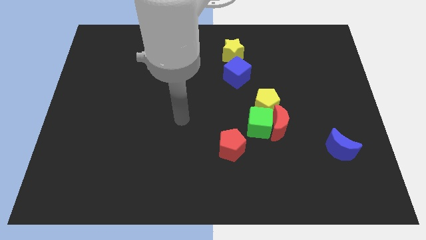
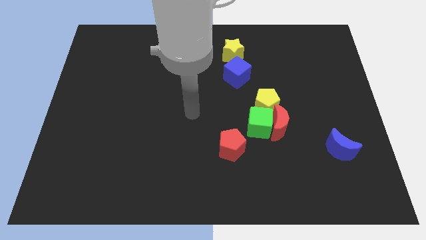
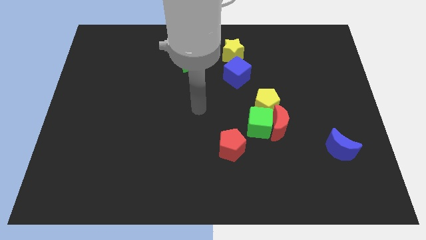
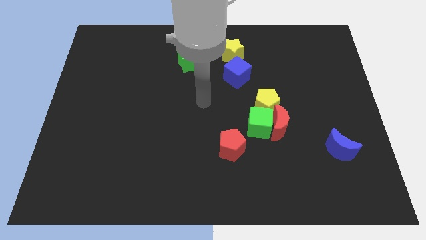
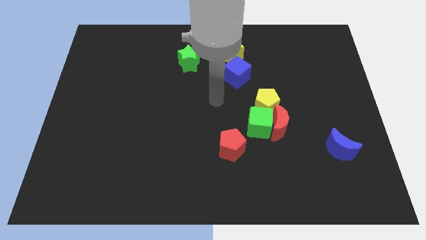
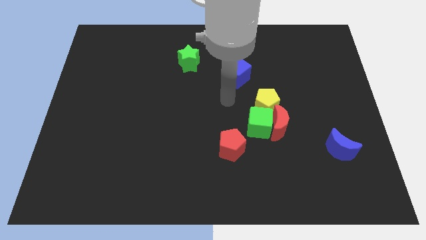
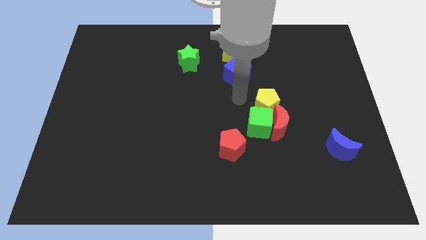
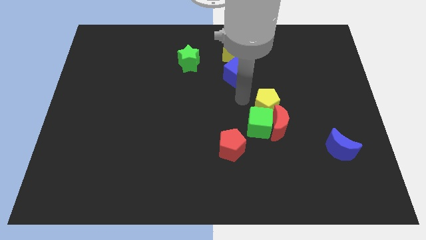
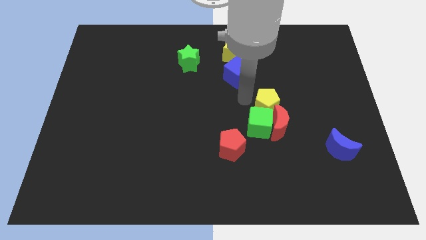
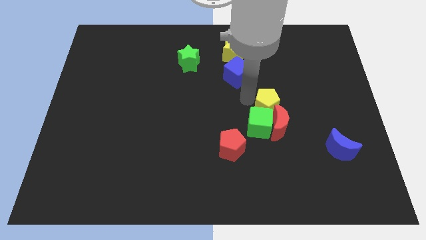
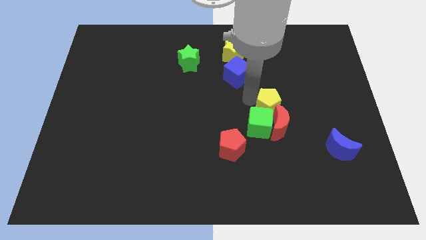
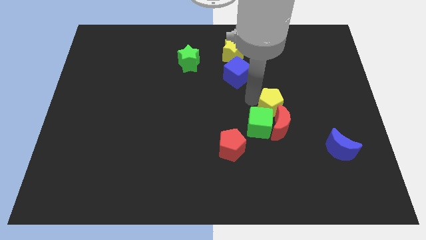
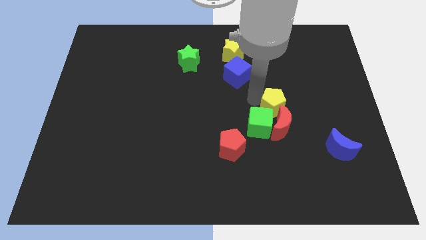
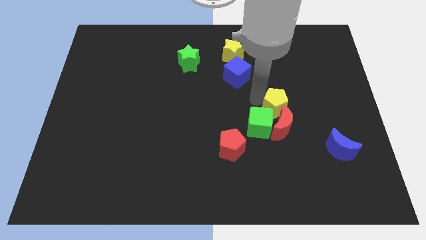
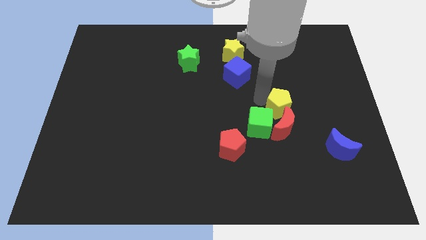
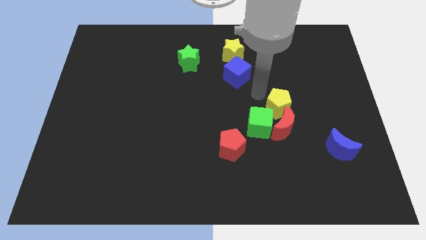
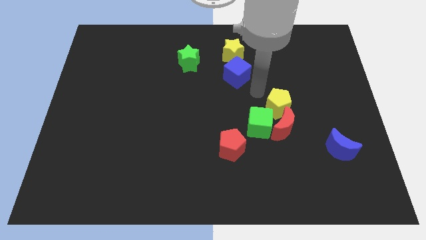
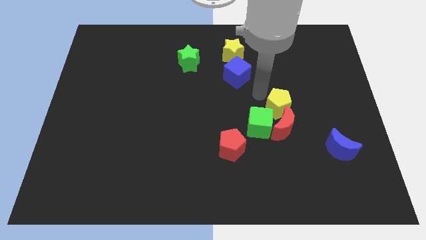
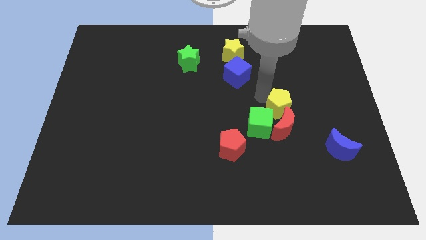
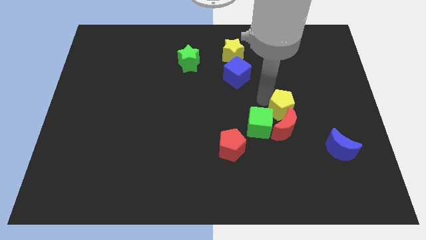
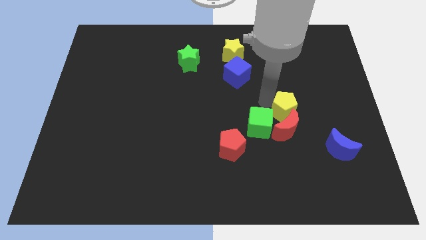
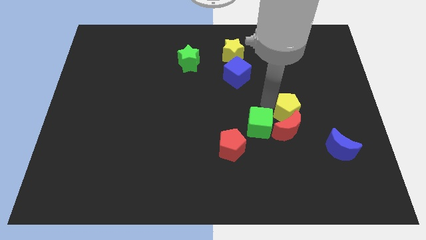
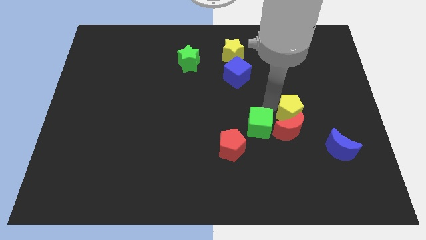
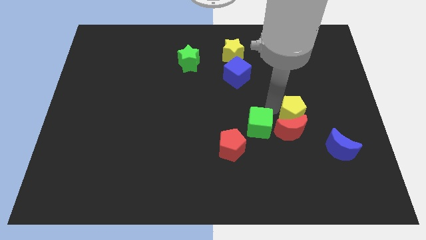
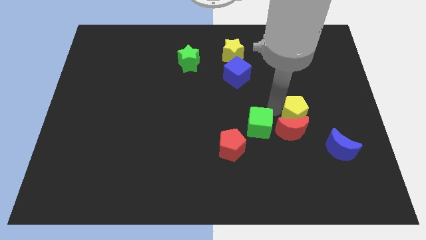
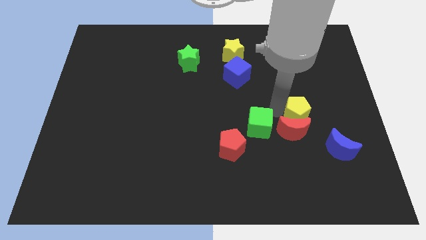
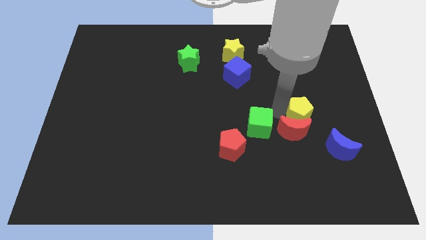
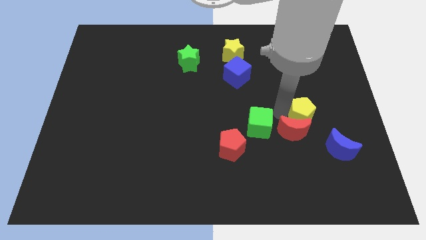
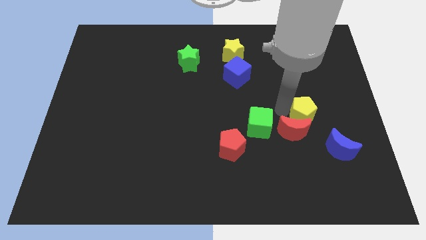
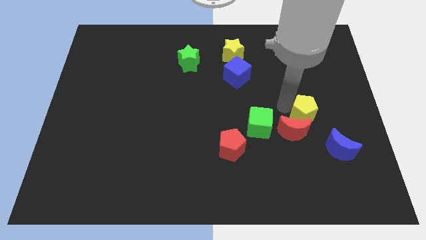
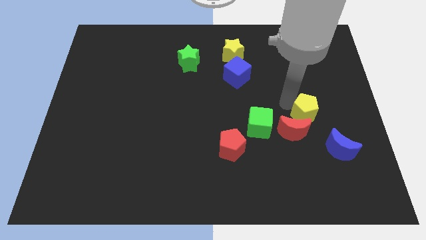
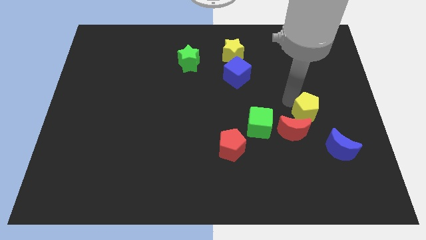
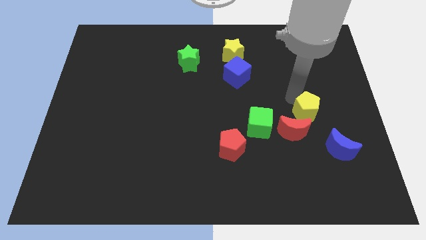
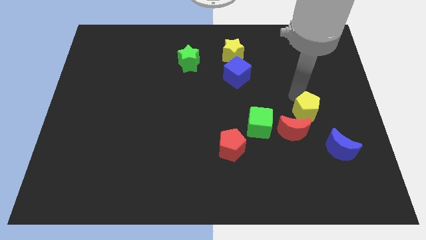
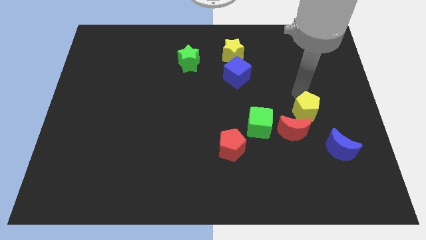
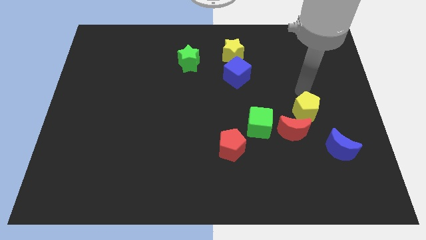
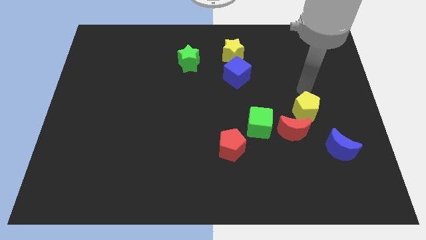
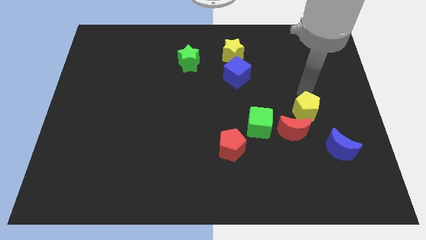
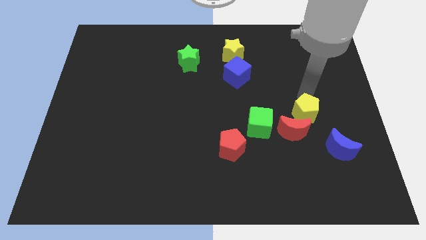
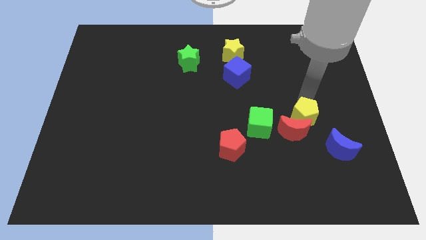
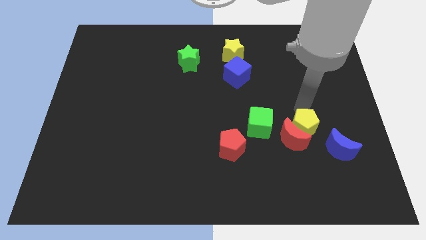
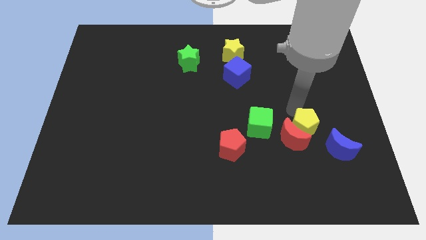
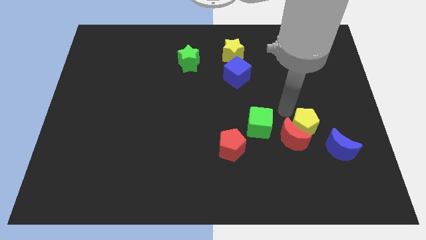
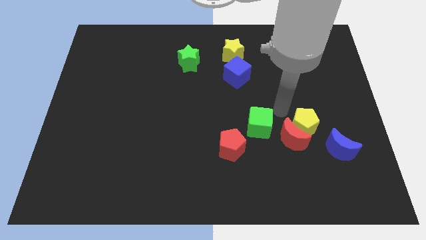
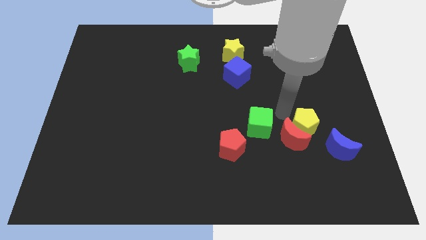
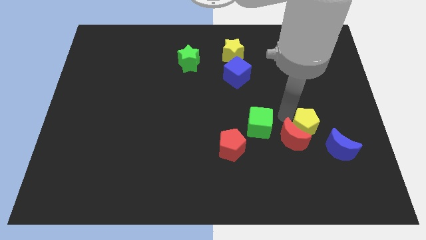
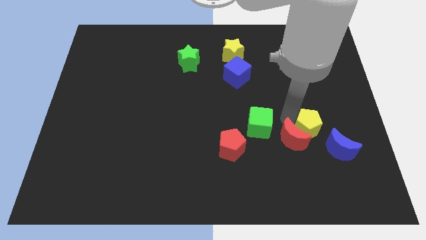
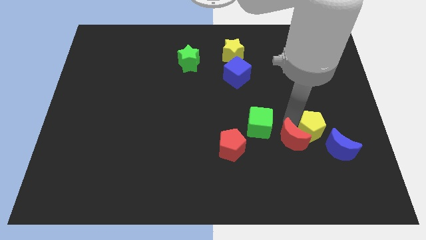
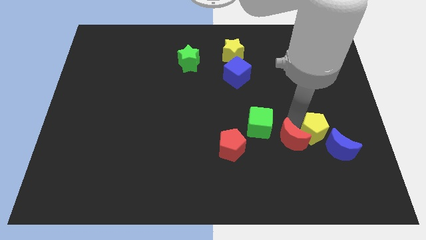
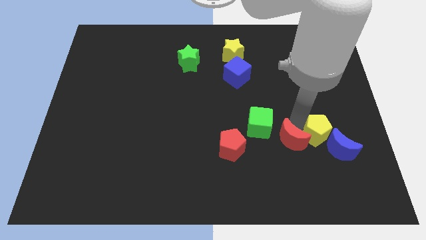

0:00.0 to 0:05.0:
push the yellow pentagon to the blue moon

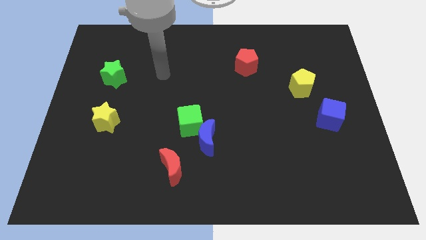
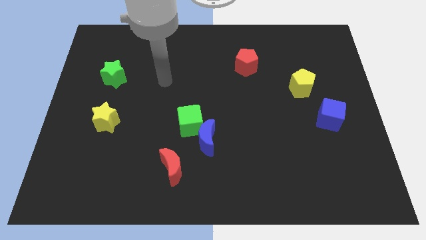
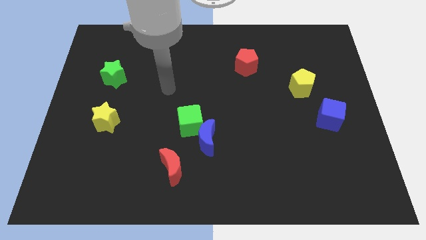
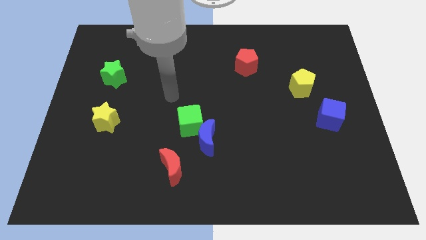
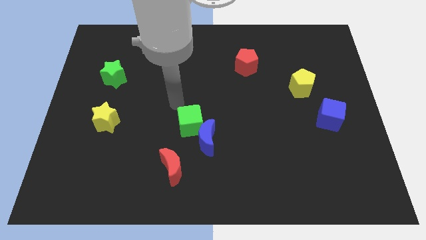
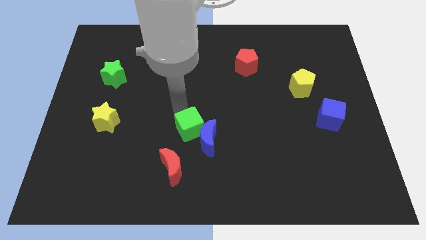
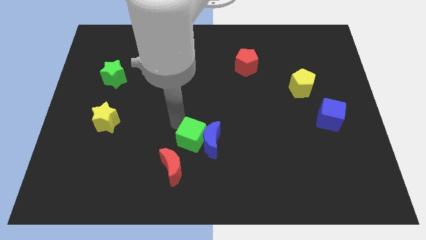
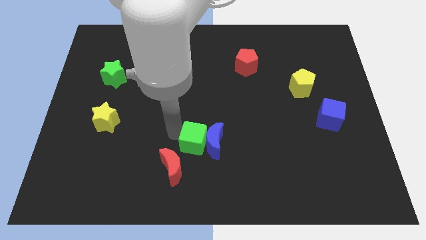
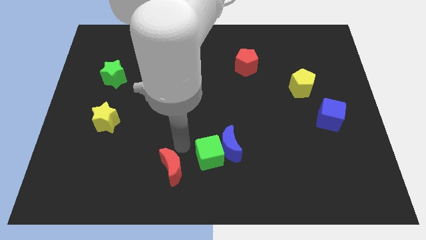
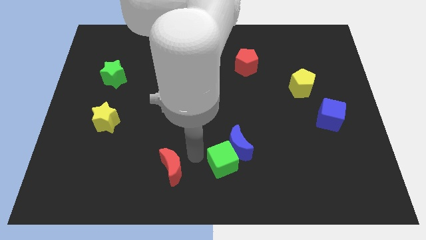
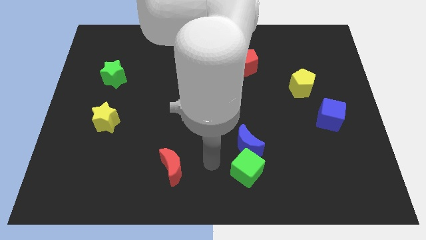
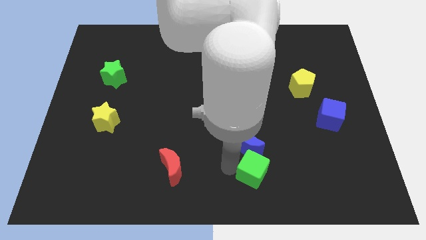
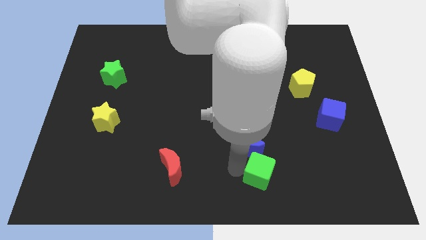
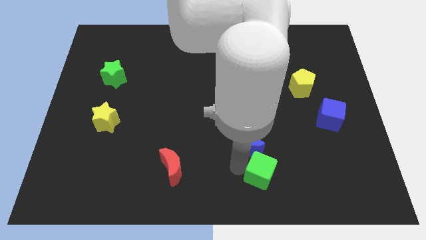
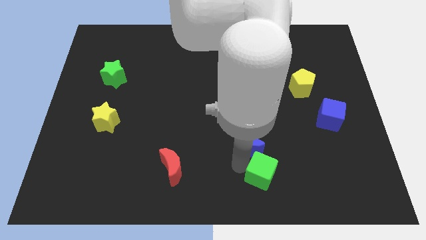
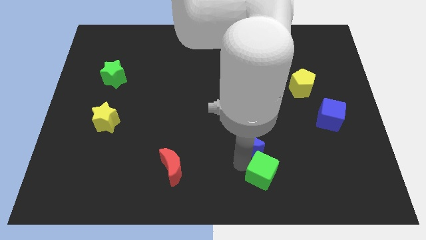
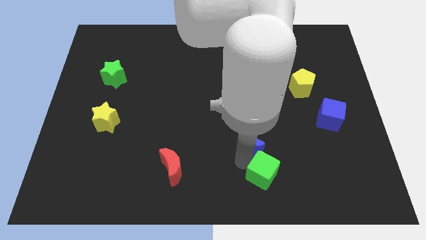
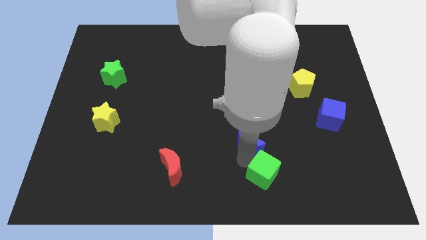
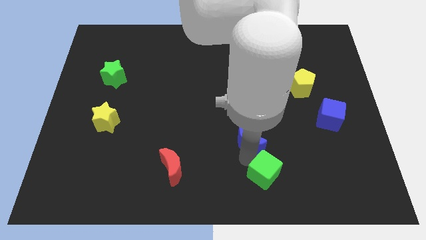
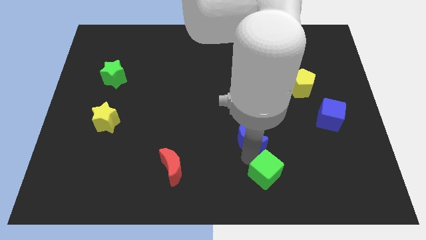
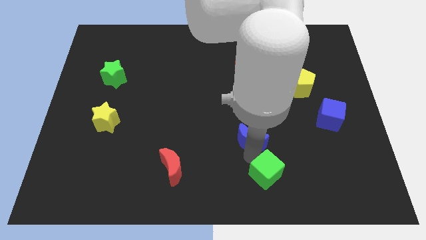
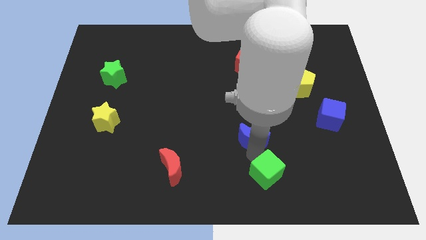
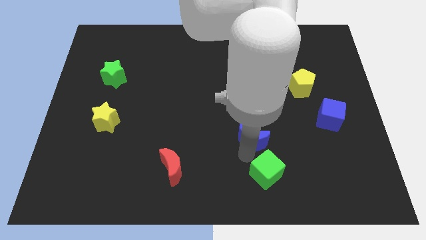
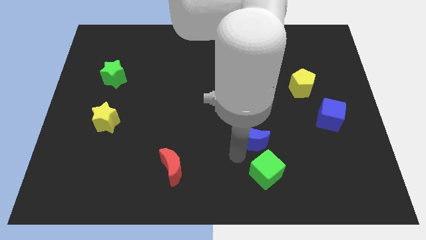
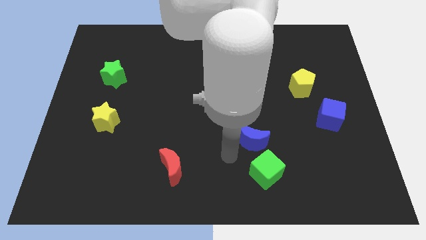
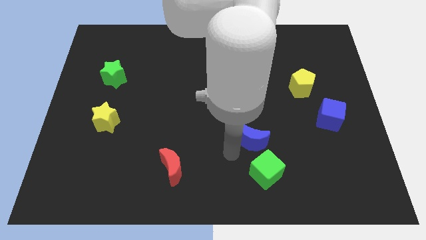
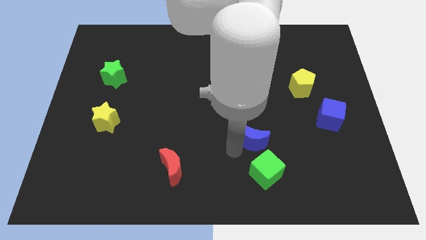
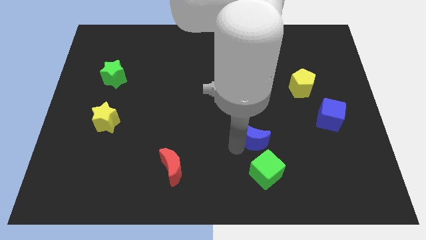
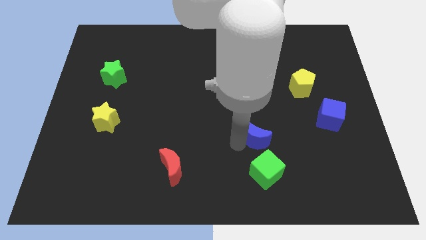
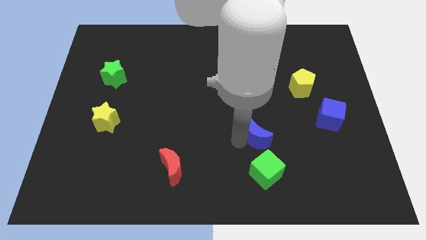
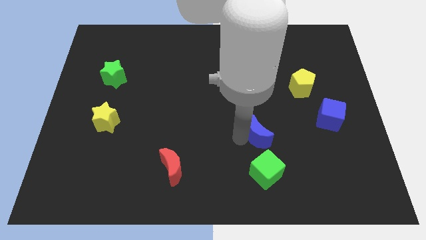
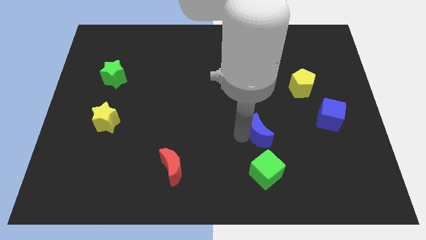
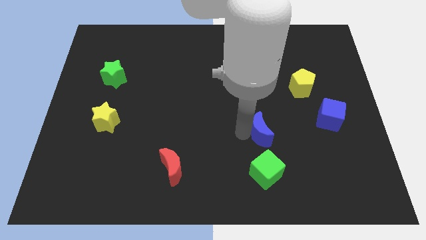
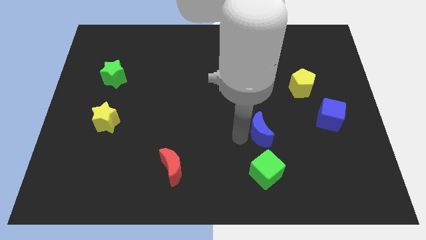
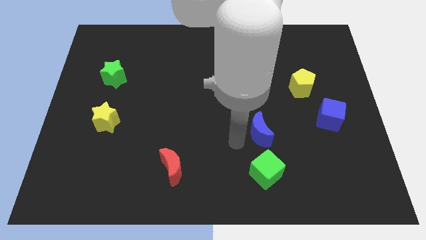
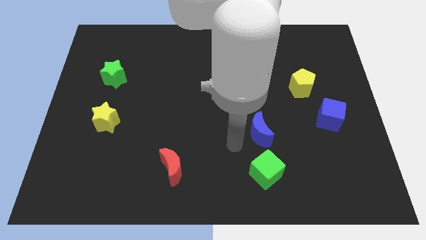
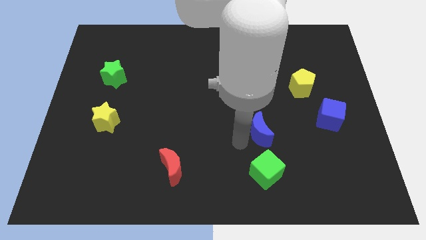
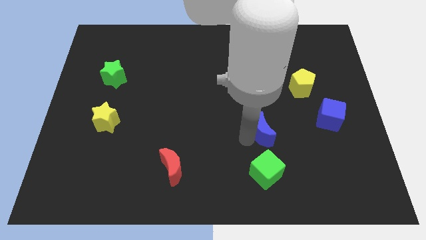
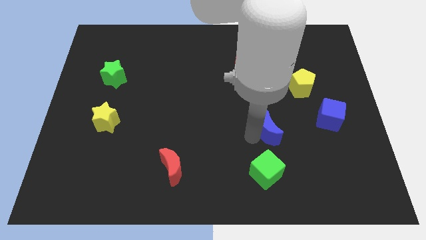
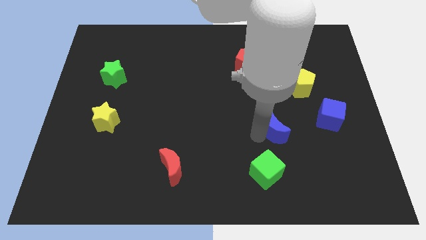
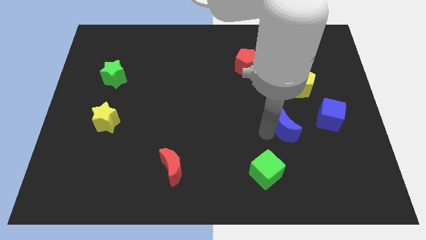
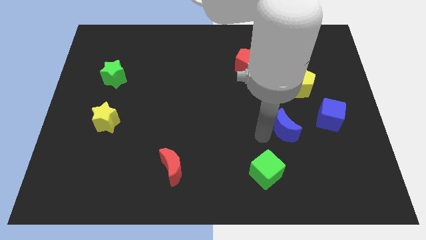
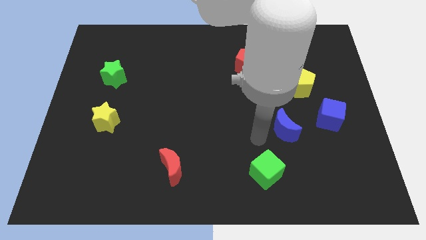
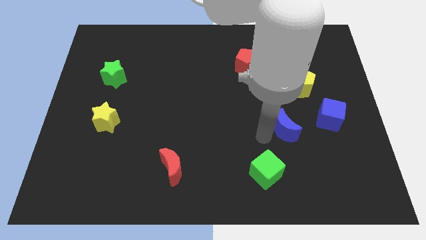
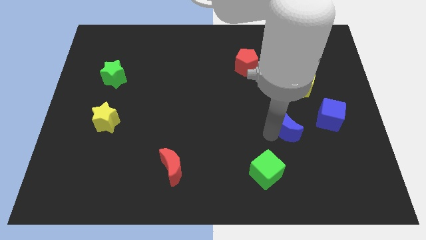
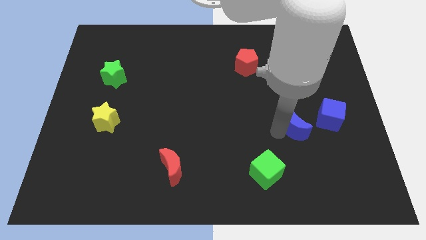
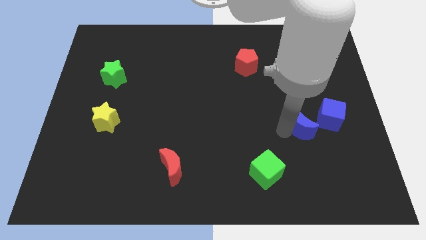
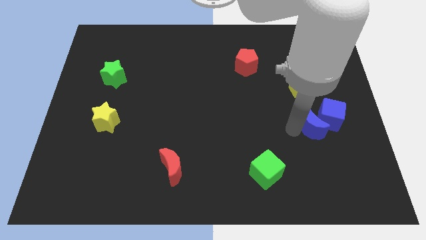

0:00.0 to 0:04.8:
move the blue moon next to the blue cube
